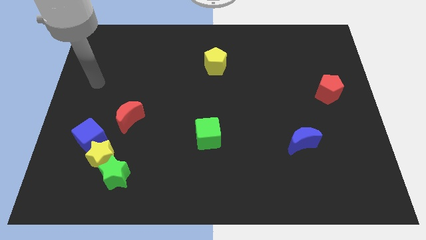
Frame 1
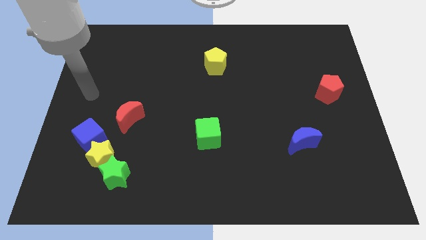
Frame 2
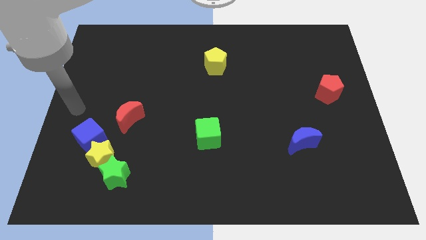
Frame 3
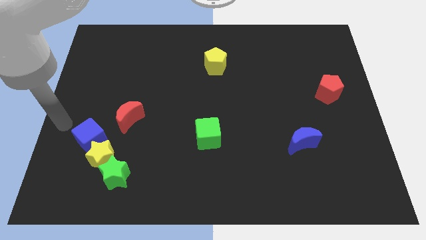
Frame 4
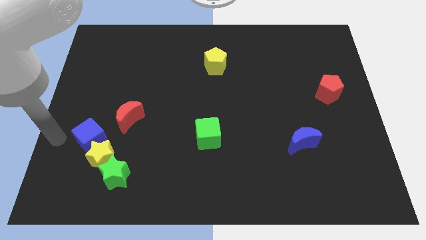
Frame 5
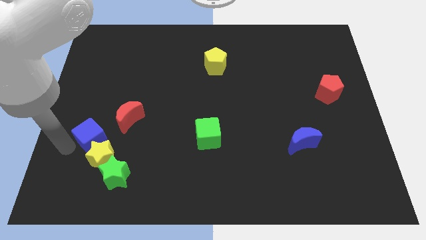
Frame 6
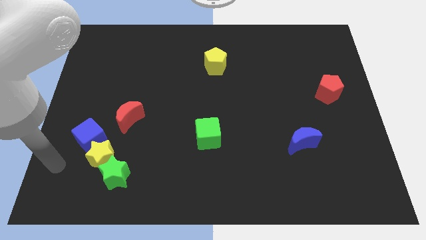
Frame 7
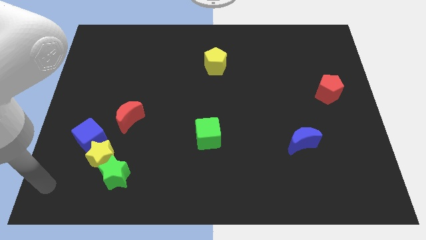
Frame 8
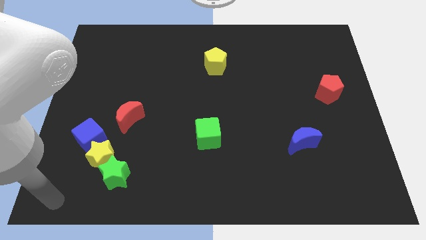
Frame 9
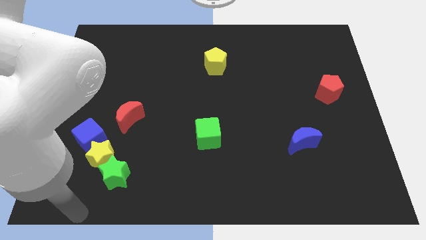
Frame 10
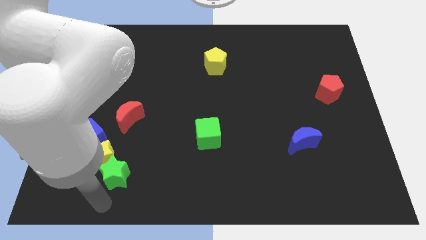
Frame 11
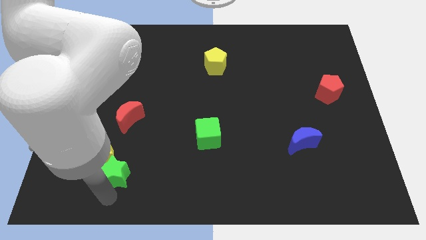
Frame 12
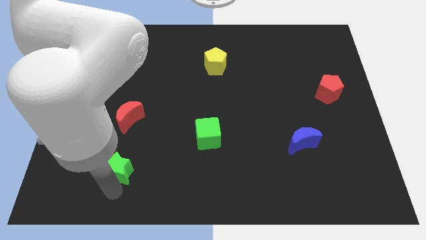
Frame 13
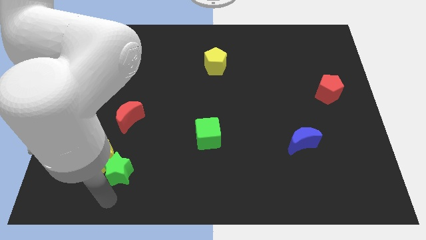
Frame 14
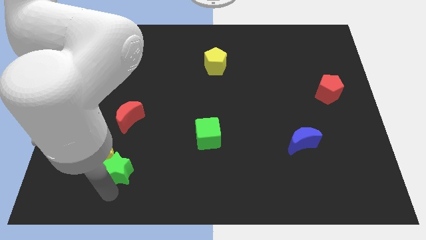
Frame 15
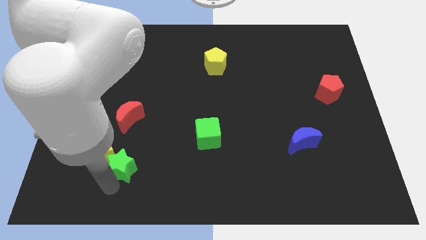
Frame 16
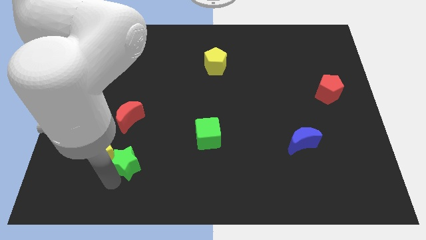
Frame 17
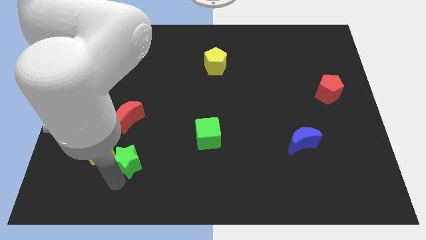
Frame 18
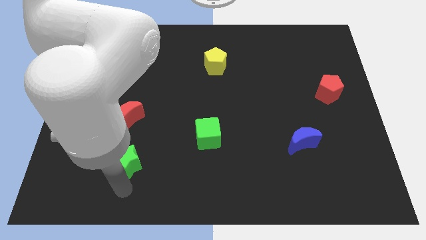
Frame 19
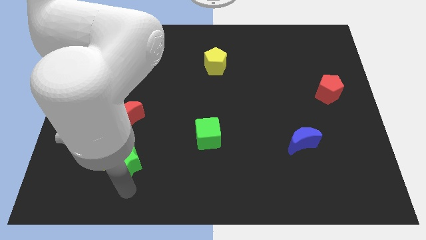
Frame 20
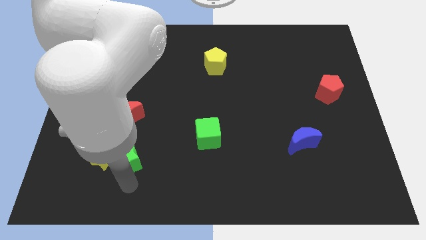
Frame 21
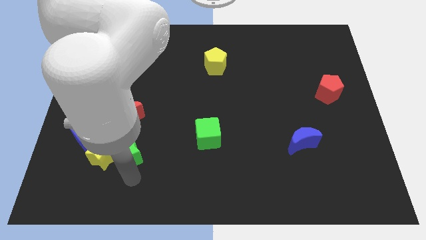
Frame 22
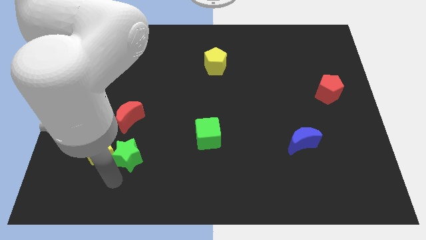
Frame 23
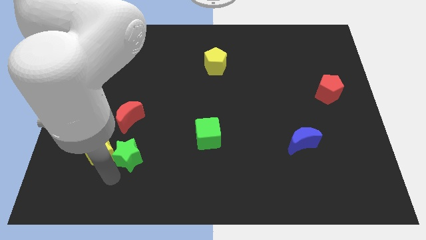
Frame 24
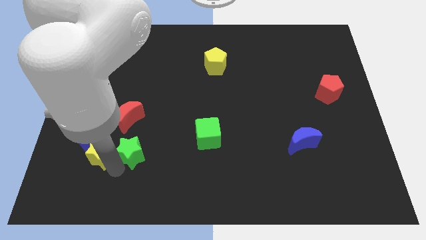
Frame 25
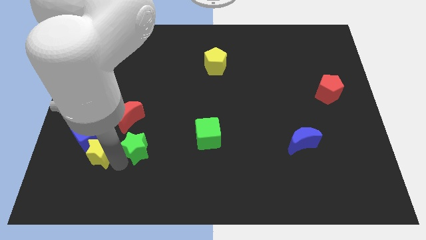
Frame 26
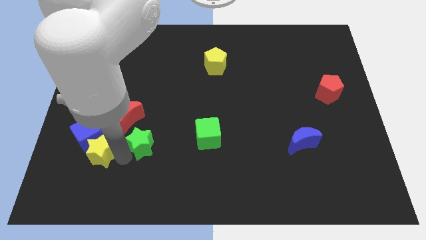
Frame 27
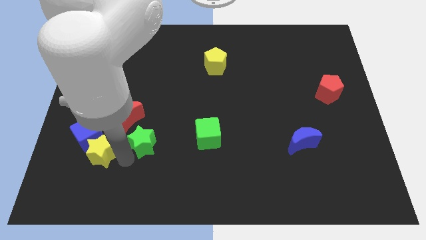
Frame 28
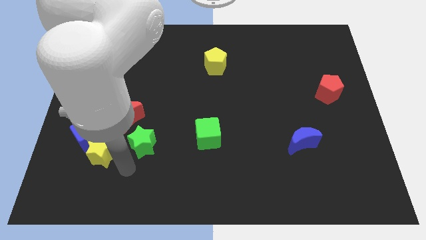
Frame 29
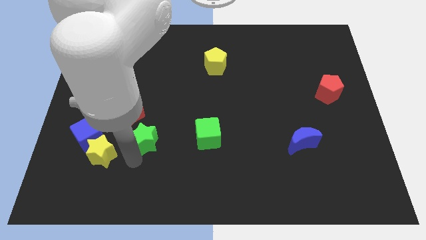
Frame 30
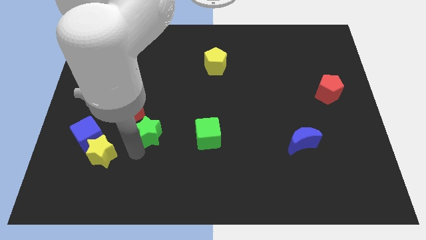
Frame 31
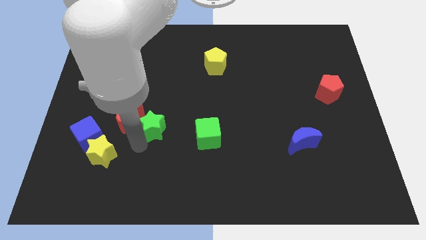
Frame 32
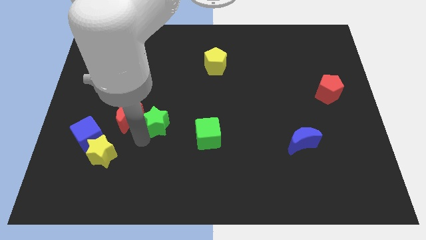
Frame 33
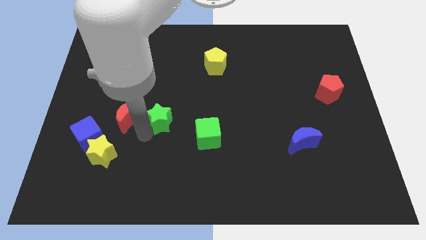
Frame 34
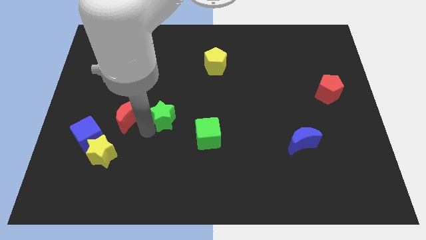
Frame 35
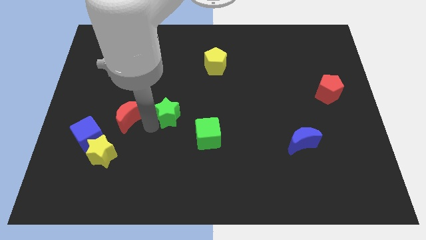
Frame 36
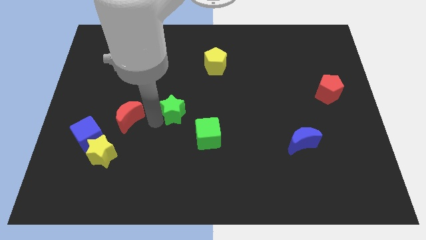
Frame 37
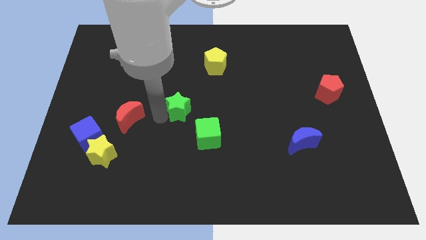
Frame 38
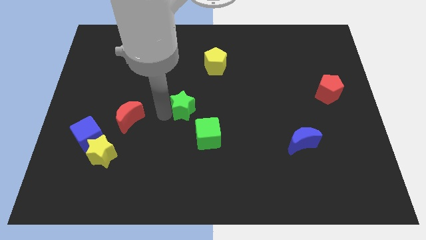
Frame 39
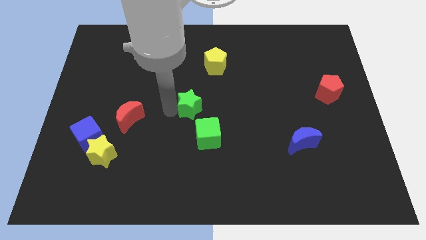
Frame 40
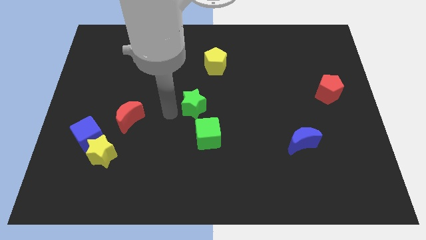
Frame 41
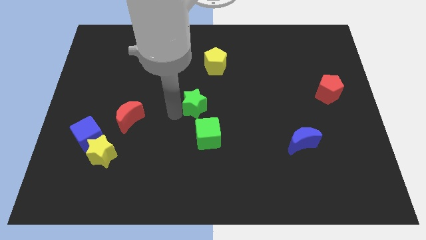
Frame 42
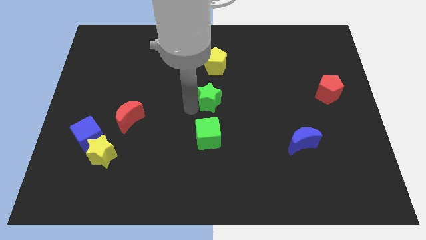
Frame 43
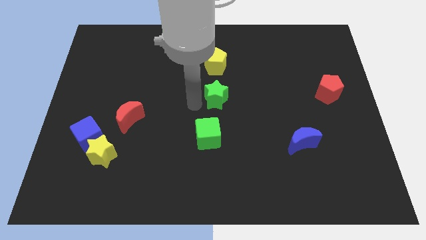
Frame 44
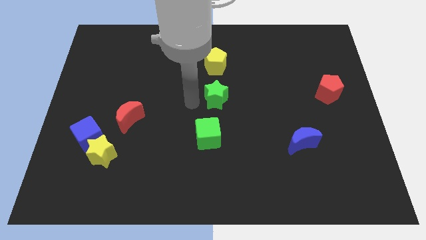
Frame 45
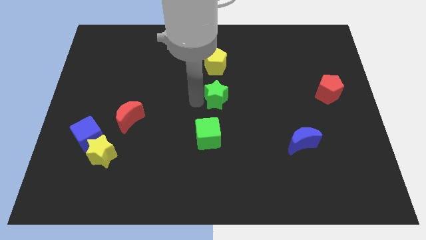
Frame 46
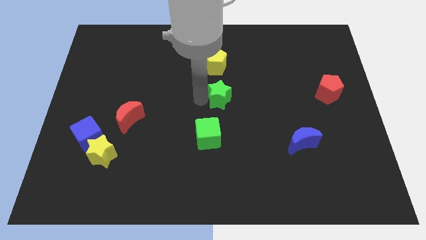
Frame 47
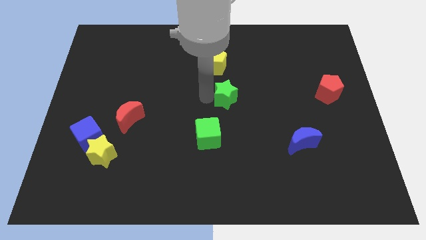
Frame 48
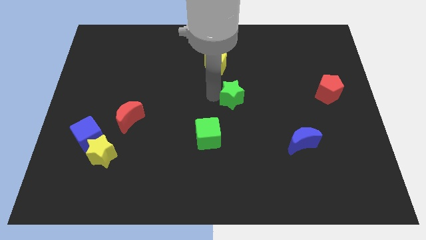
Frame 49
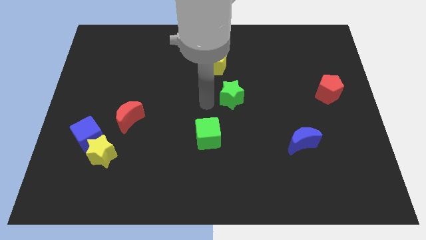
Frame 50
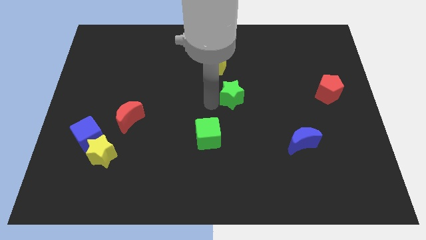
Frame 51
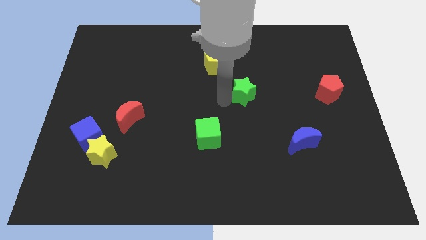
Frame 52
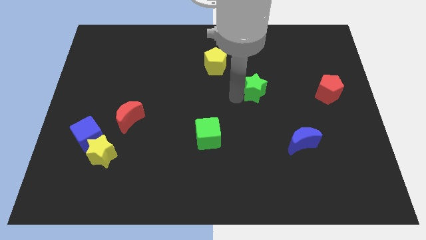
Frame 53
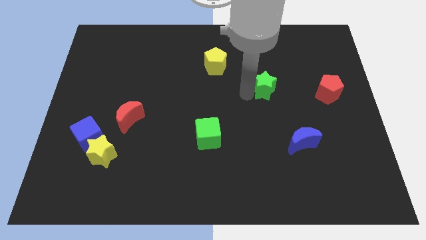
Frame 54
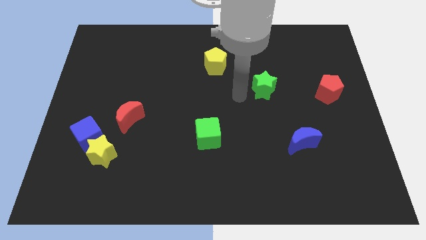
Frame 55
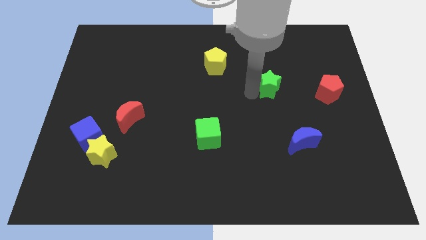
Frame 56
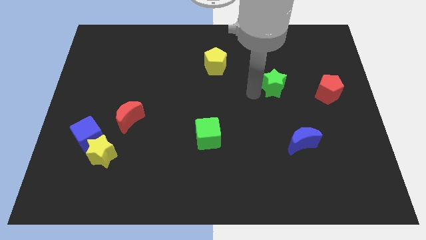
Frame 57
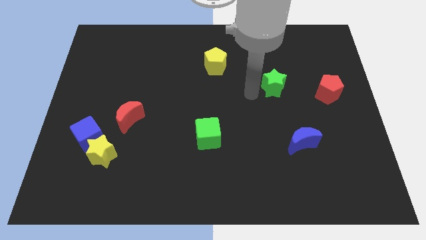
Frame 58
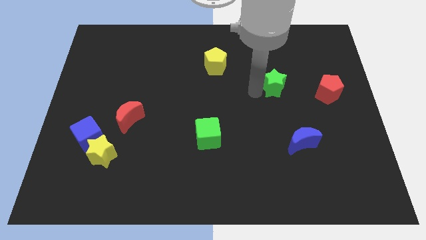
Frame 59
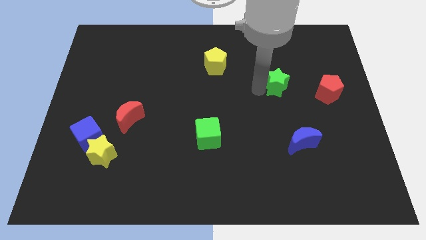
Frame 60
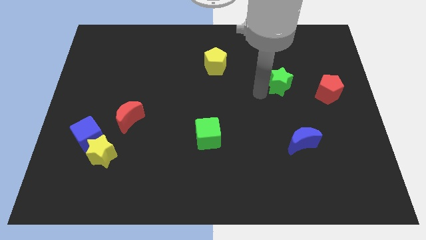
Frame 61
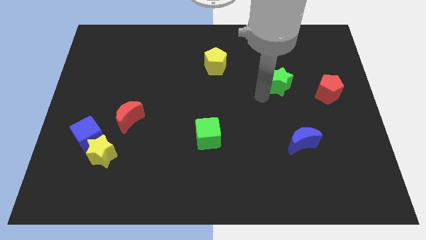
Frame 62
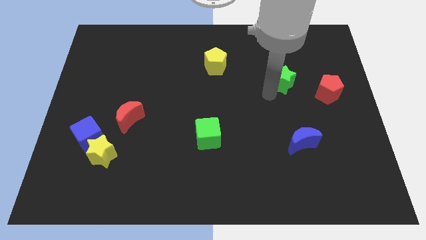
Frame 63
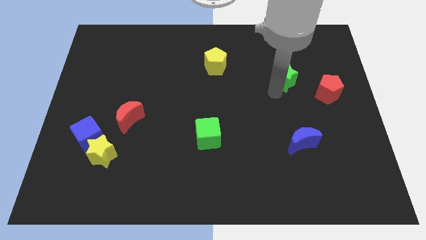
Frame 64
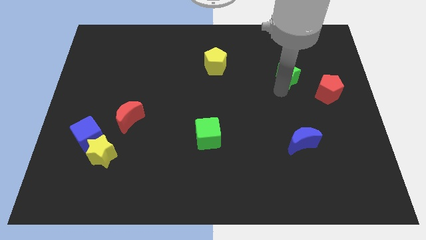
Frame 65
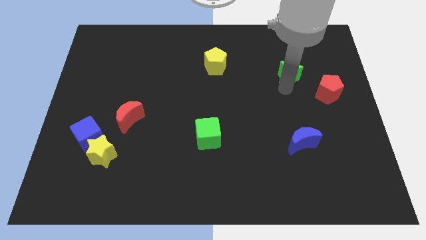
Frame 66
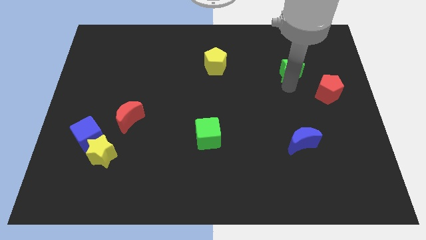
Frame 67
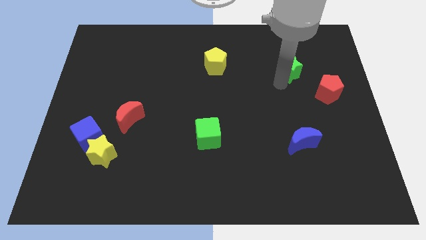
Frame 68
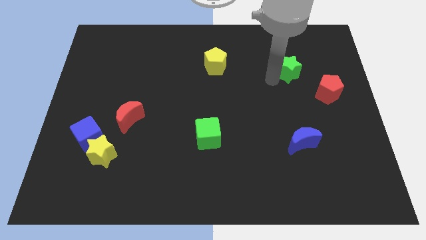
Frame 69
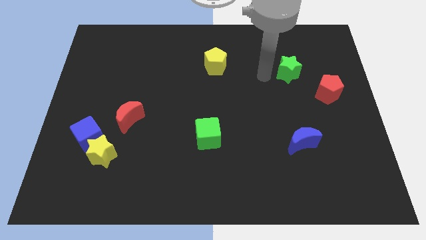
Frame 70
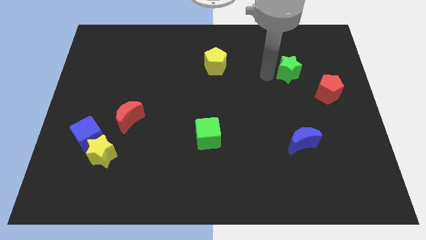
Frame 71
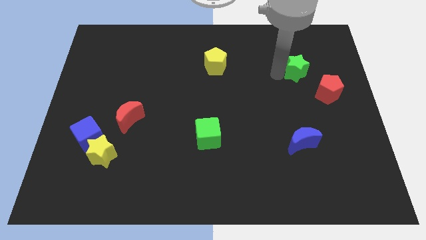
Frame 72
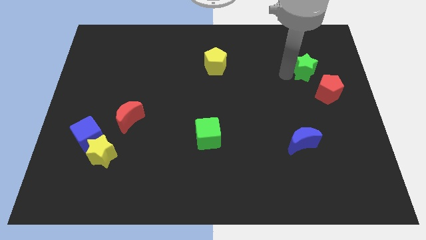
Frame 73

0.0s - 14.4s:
push the green star to the top side of the red pentagon
